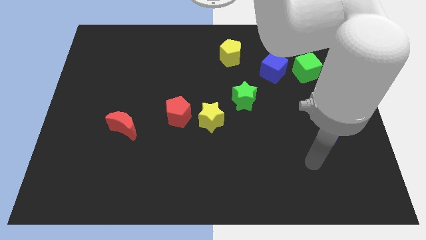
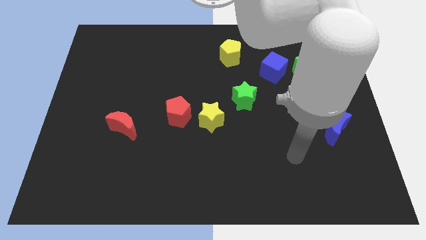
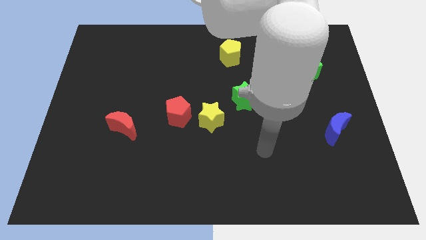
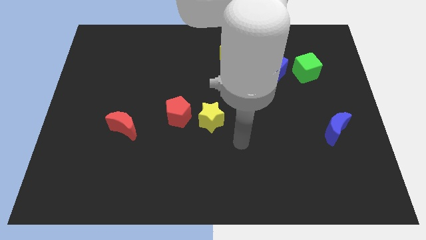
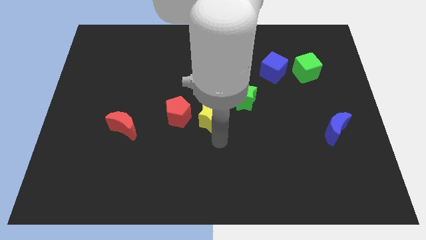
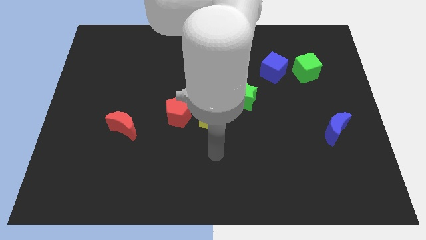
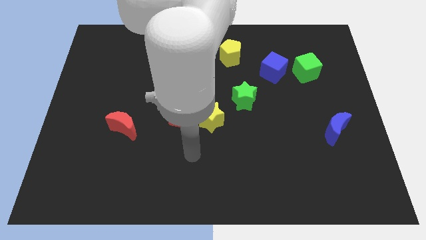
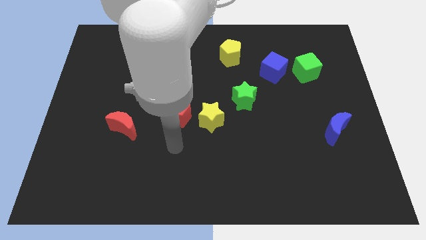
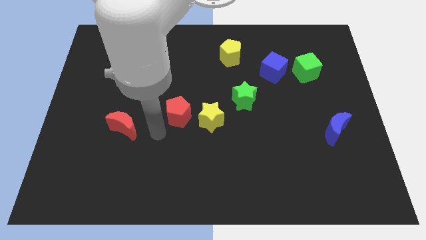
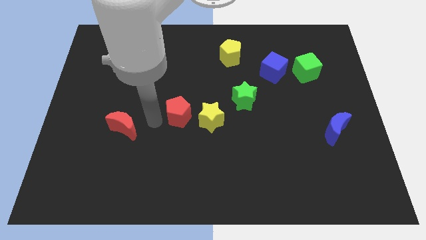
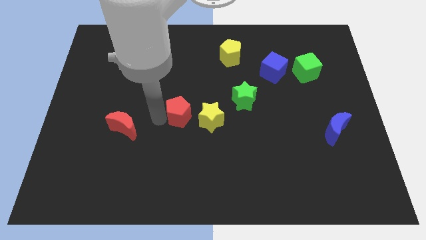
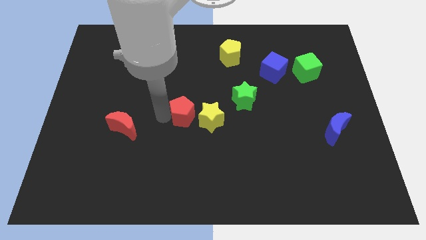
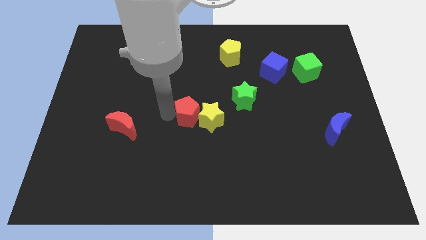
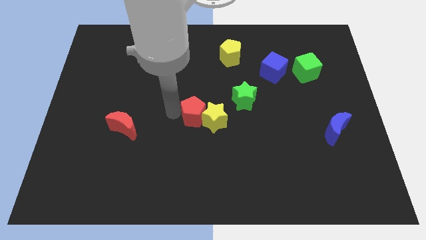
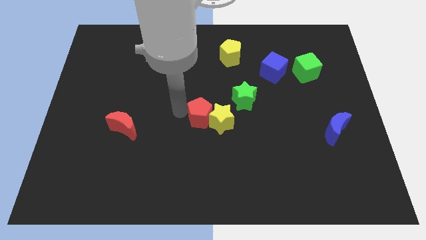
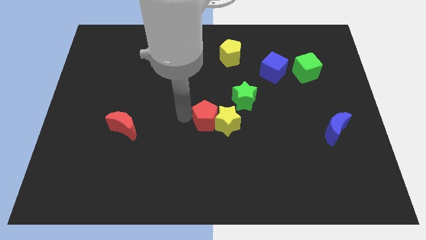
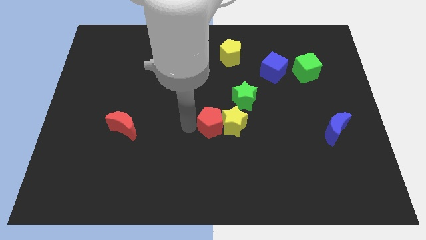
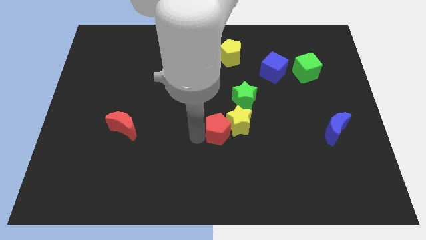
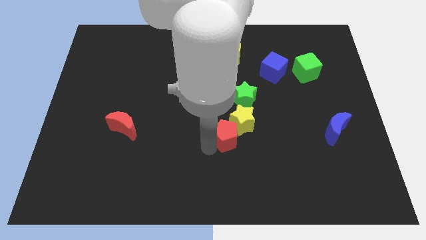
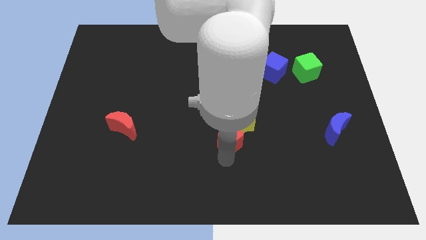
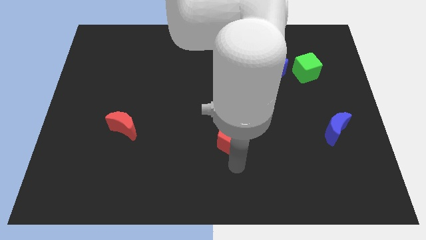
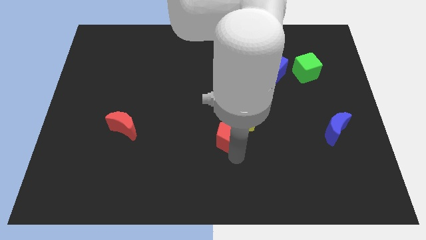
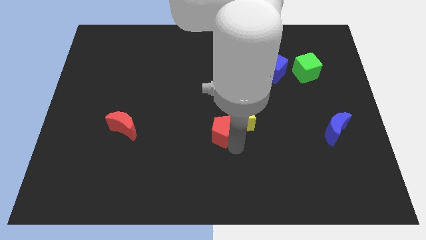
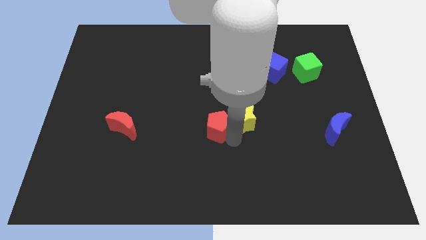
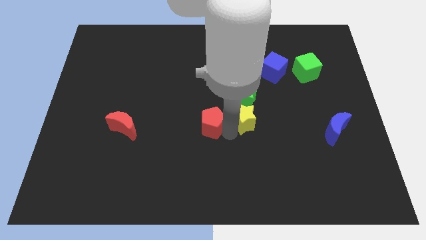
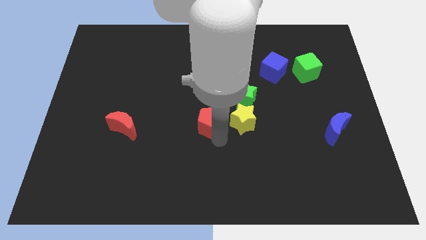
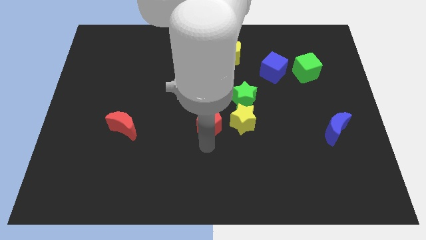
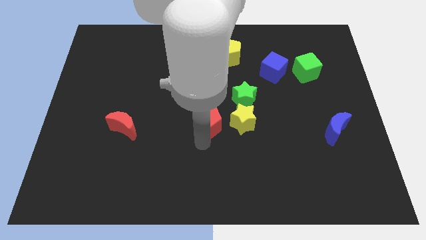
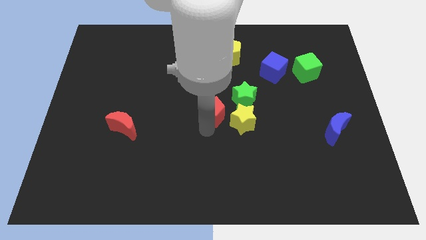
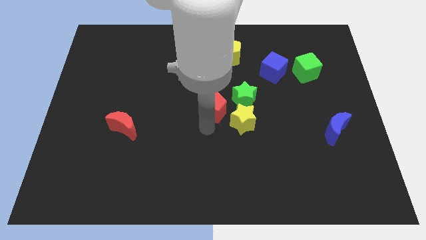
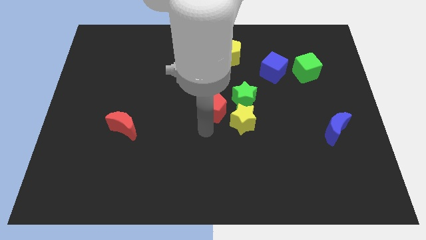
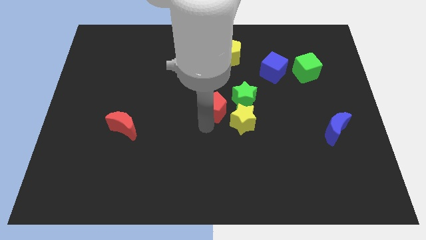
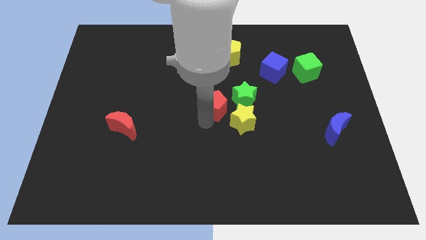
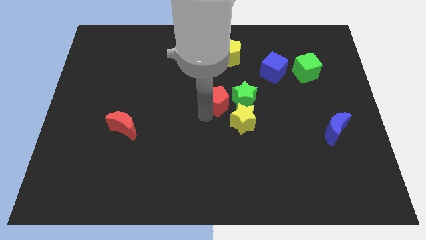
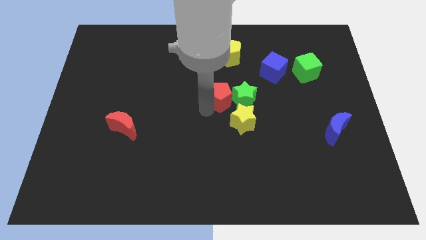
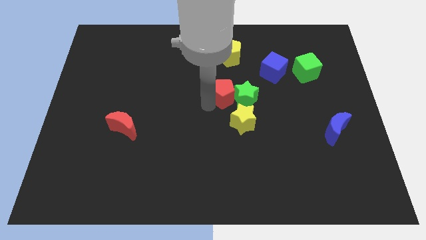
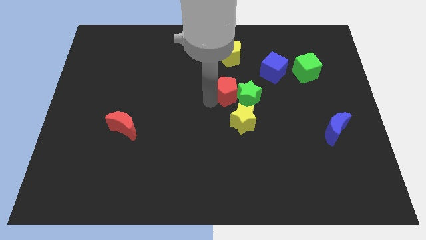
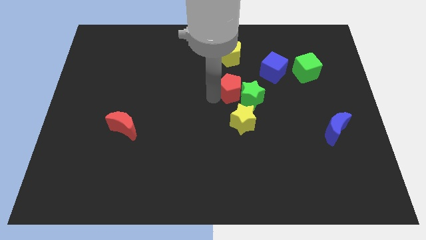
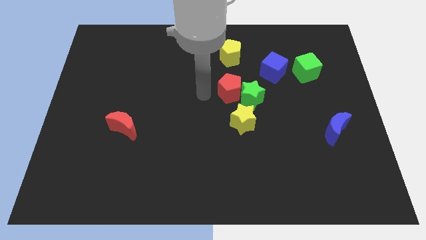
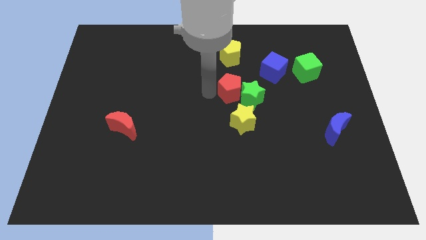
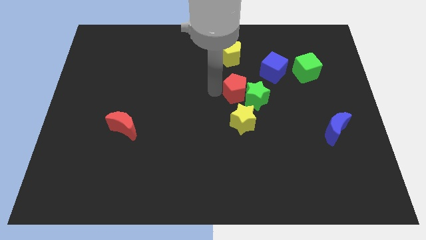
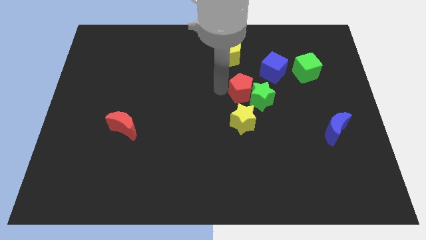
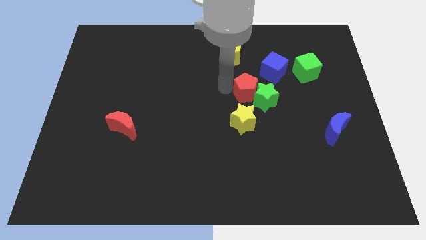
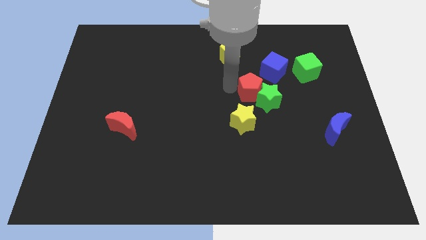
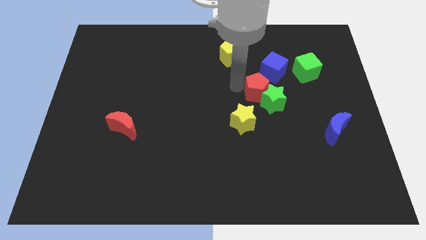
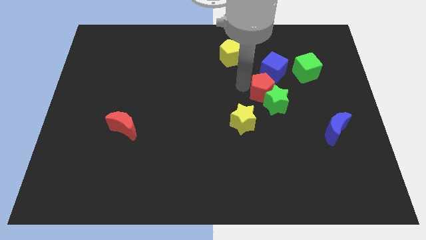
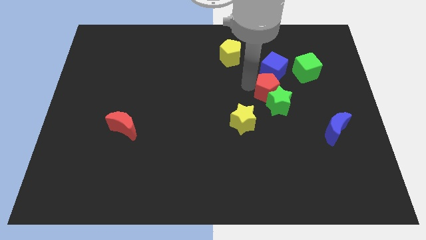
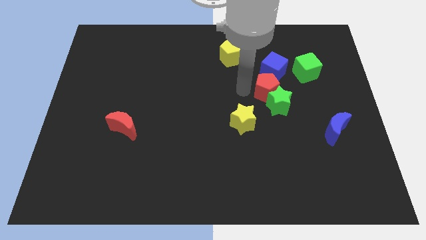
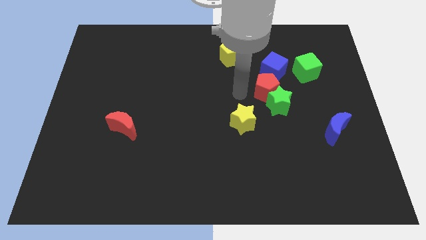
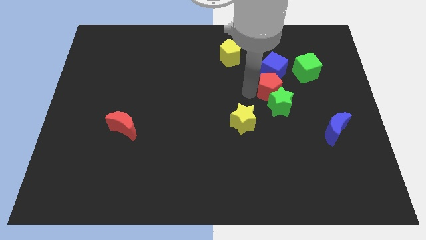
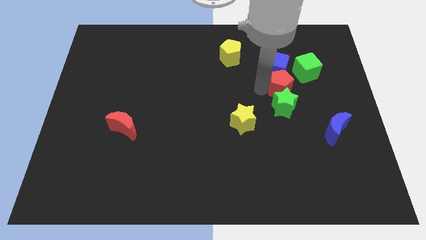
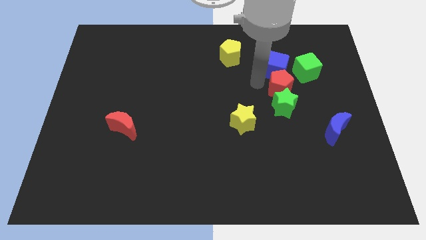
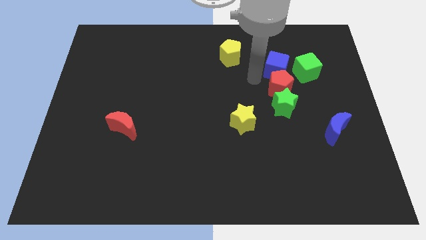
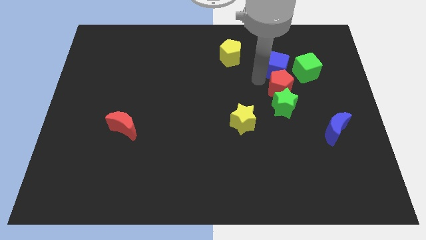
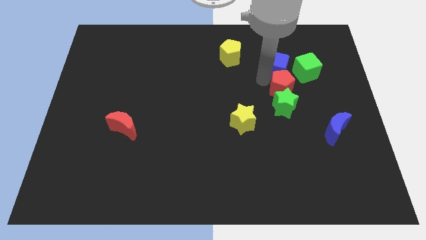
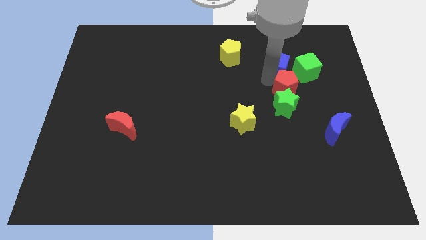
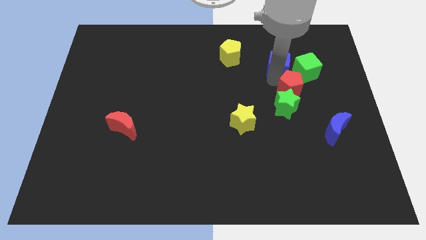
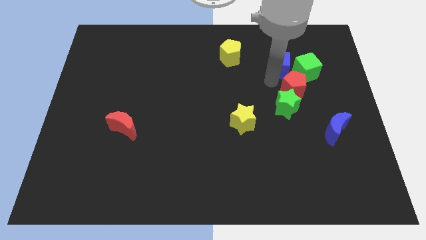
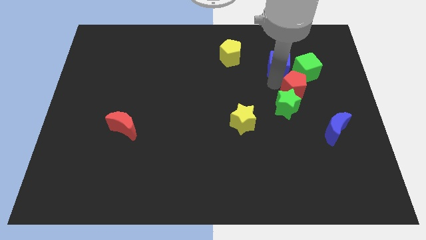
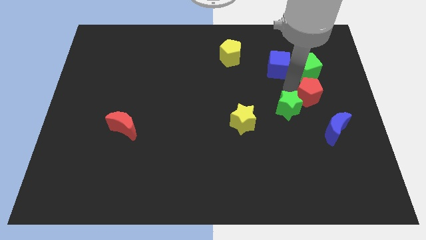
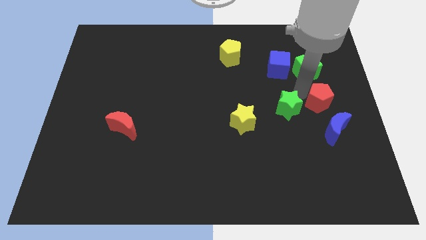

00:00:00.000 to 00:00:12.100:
slide the red pentagon to the right side
